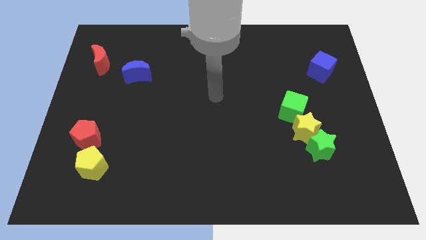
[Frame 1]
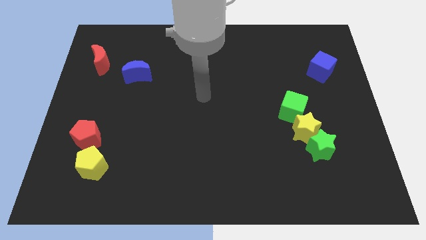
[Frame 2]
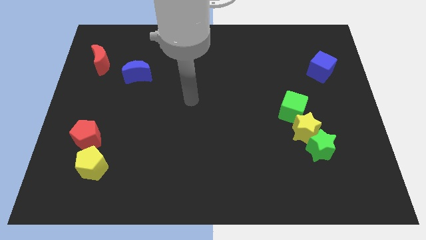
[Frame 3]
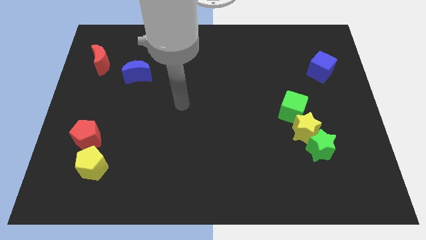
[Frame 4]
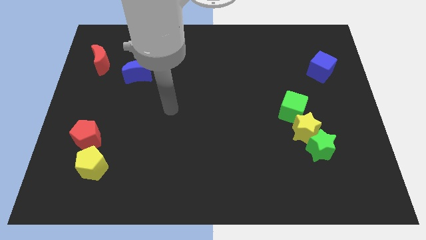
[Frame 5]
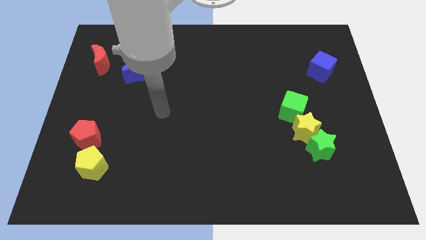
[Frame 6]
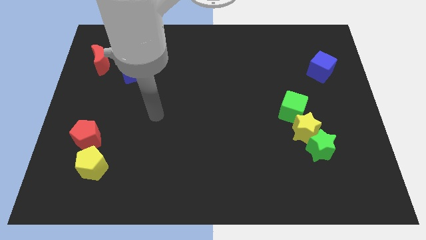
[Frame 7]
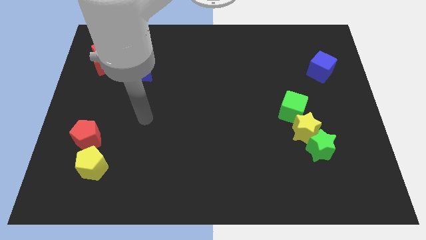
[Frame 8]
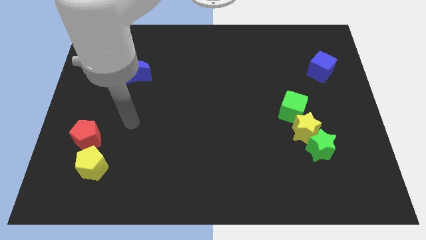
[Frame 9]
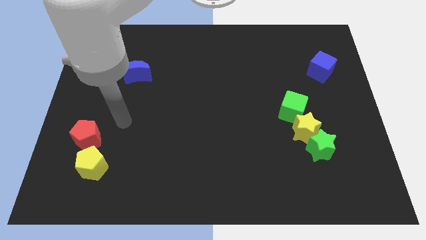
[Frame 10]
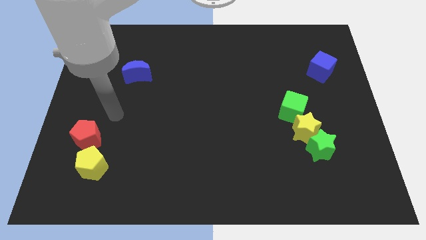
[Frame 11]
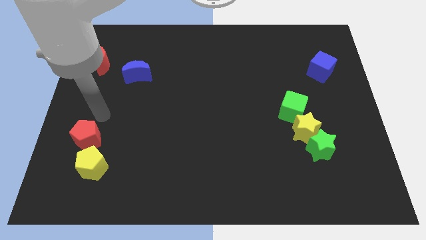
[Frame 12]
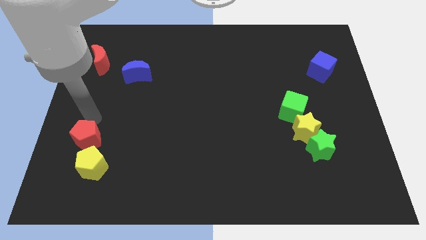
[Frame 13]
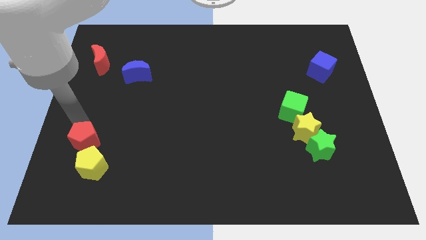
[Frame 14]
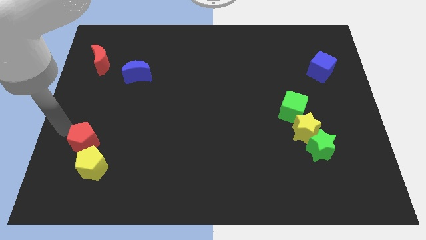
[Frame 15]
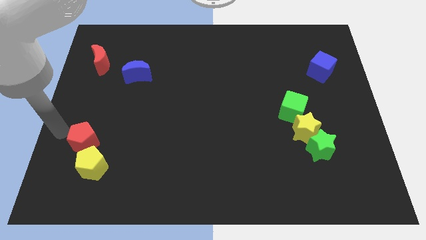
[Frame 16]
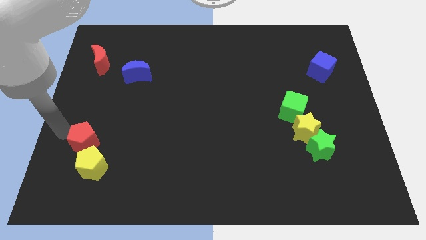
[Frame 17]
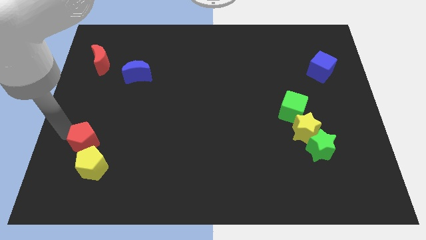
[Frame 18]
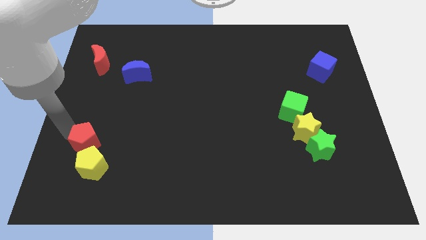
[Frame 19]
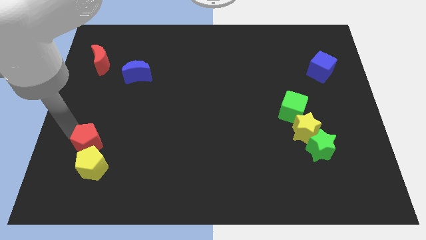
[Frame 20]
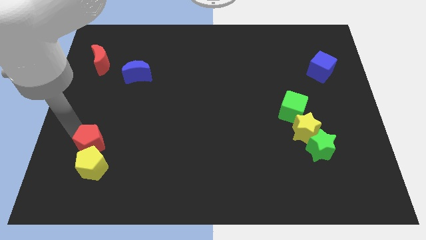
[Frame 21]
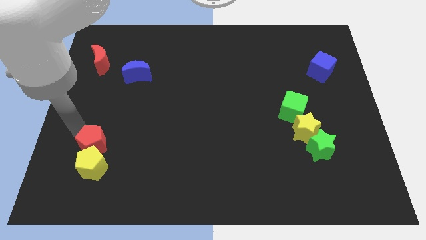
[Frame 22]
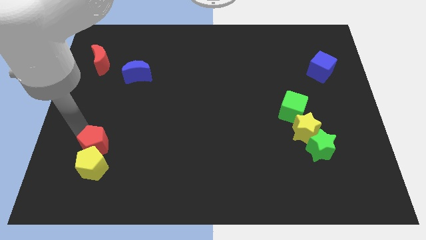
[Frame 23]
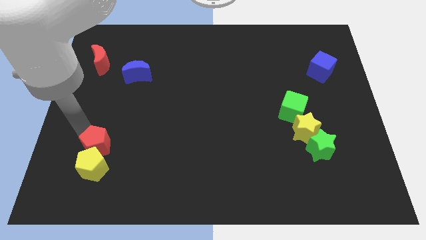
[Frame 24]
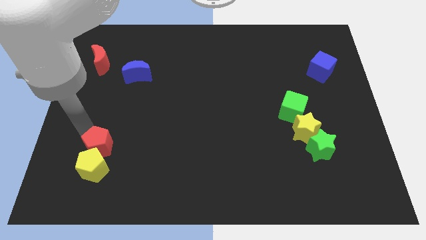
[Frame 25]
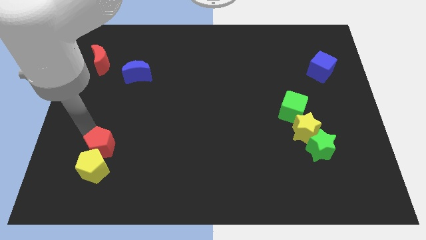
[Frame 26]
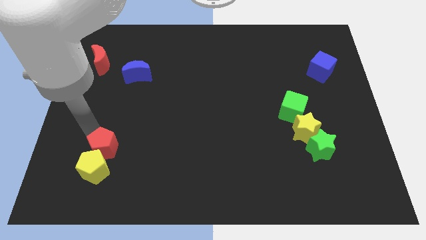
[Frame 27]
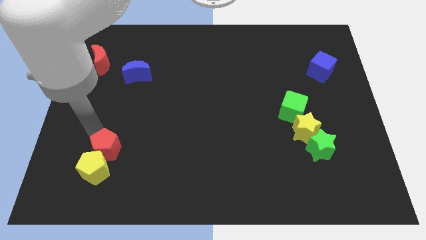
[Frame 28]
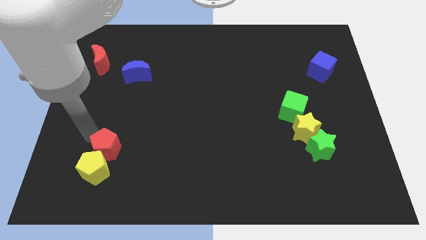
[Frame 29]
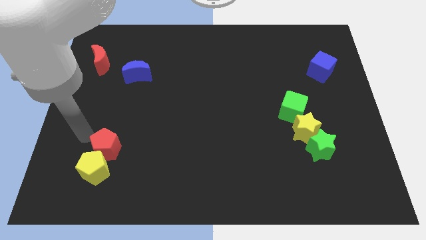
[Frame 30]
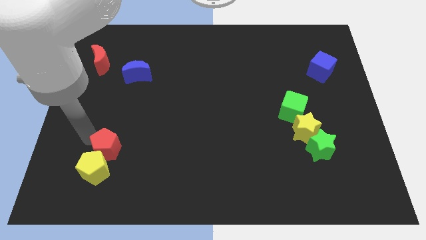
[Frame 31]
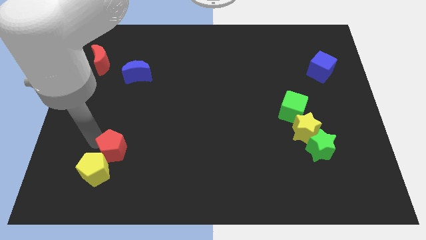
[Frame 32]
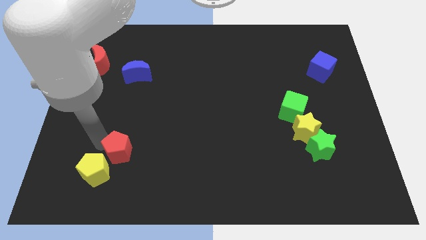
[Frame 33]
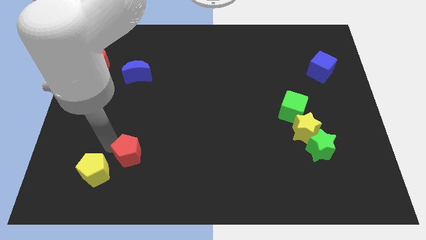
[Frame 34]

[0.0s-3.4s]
put the red pentagon just right of the yellow pentagon

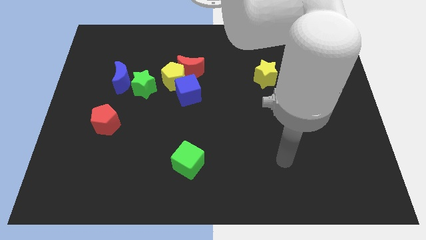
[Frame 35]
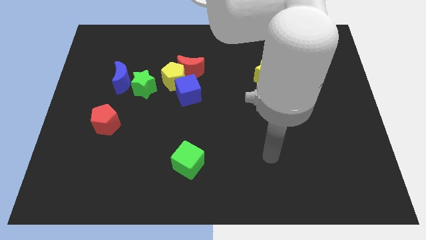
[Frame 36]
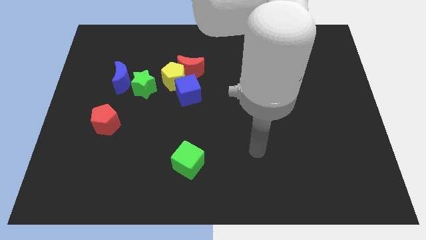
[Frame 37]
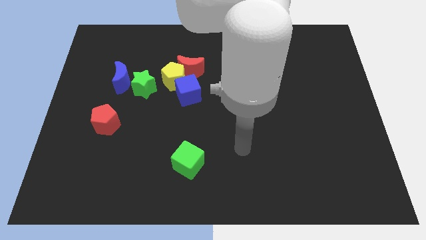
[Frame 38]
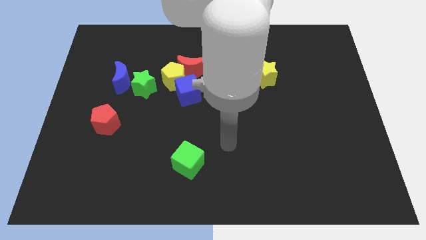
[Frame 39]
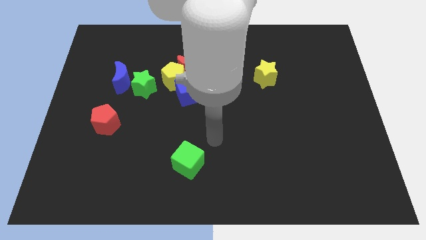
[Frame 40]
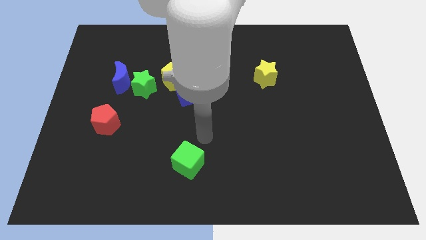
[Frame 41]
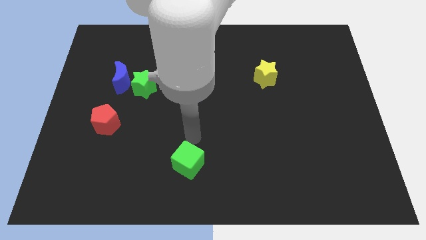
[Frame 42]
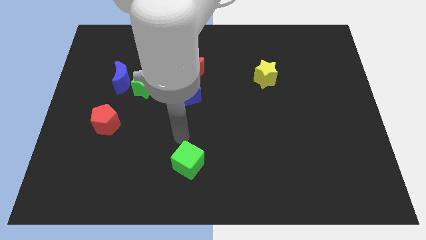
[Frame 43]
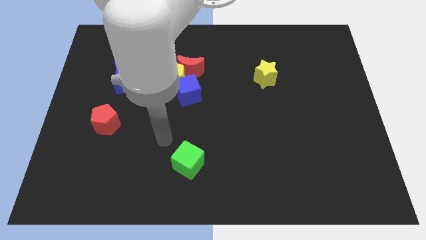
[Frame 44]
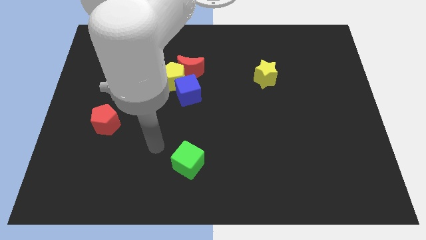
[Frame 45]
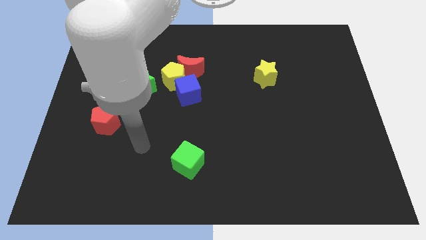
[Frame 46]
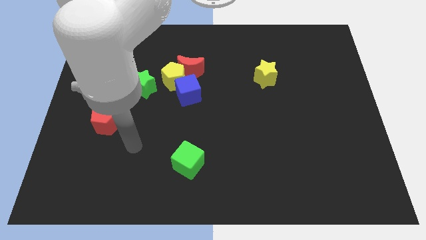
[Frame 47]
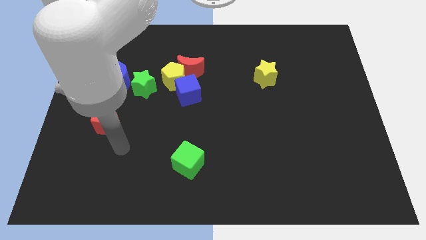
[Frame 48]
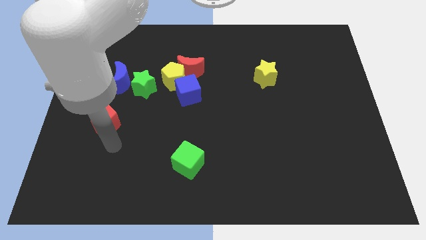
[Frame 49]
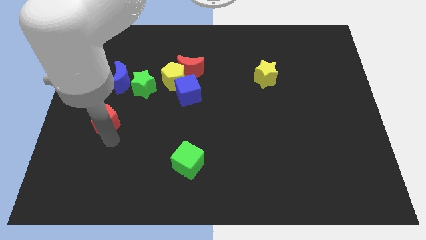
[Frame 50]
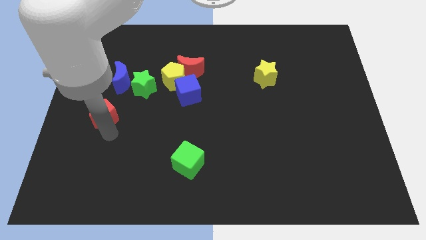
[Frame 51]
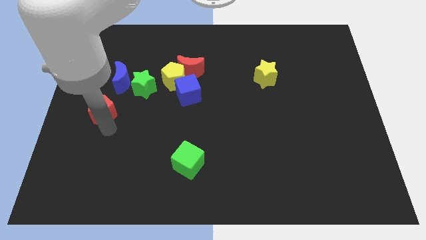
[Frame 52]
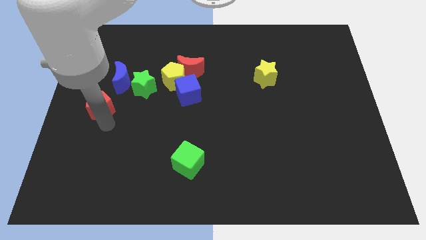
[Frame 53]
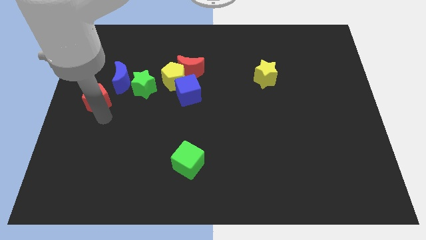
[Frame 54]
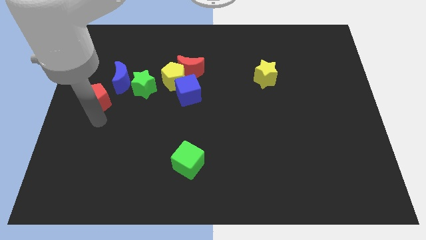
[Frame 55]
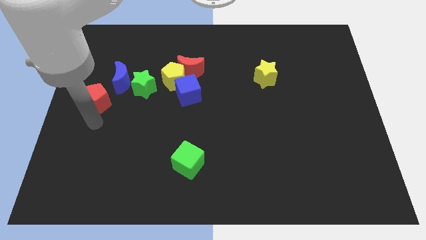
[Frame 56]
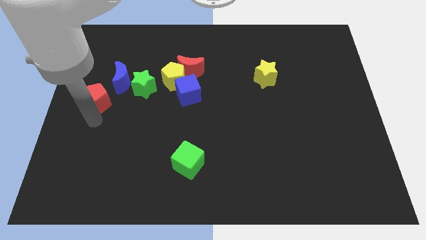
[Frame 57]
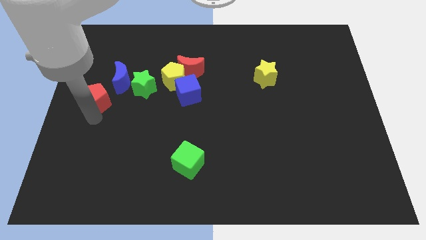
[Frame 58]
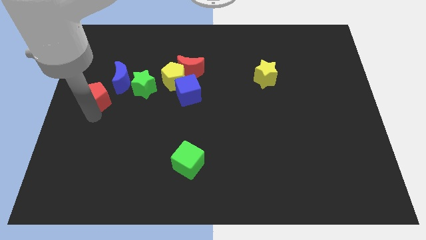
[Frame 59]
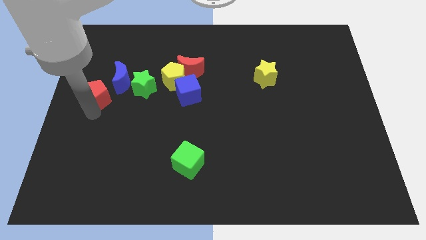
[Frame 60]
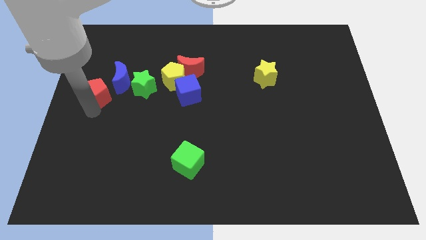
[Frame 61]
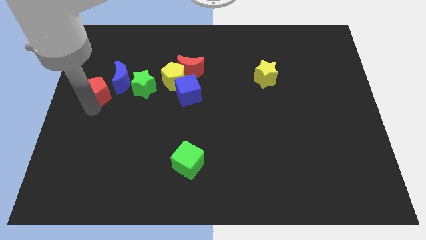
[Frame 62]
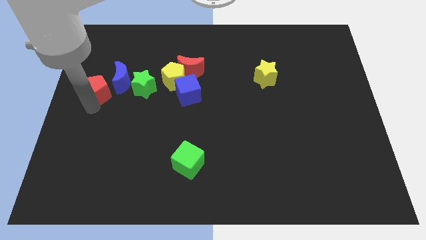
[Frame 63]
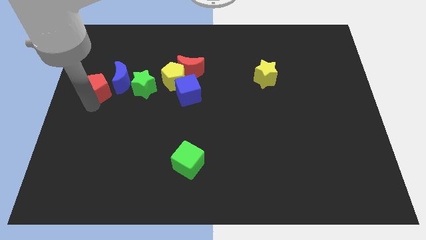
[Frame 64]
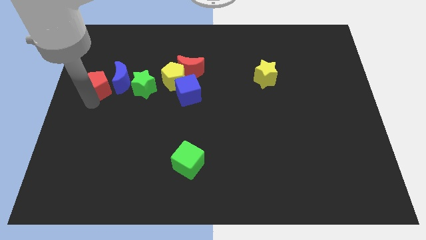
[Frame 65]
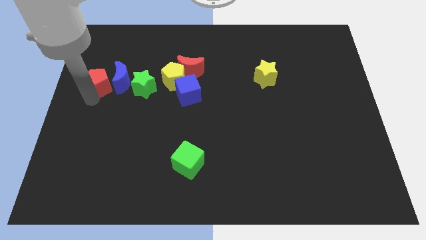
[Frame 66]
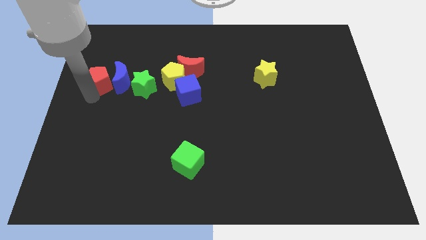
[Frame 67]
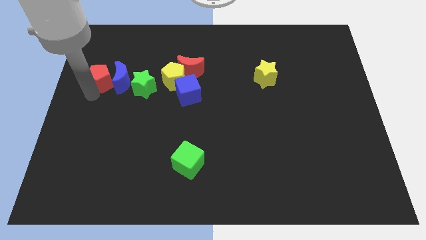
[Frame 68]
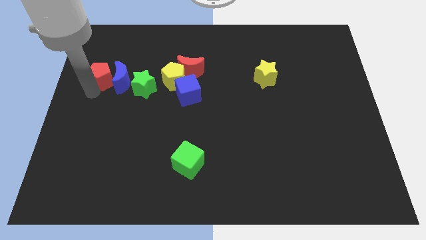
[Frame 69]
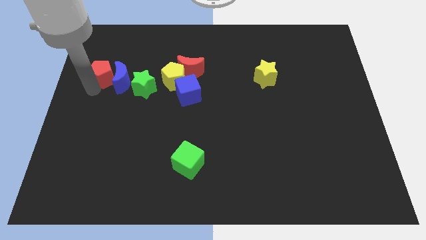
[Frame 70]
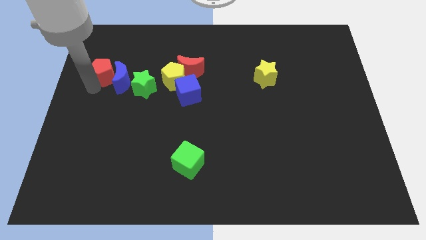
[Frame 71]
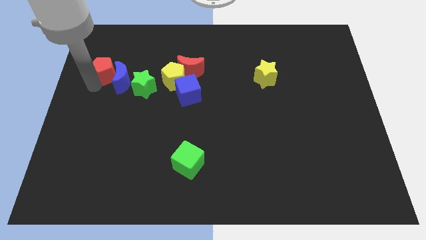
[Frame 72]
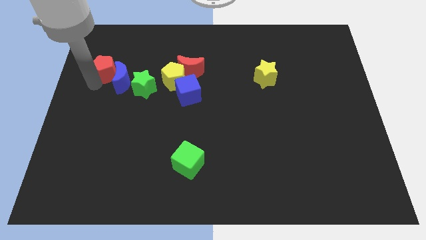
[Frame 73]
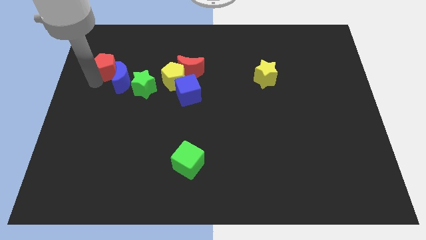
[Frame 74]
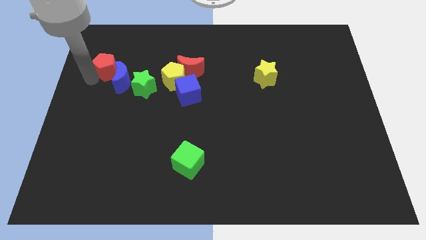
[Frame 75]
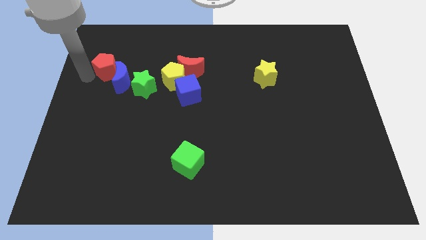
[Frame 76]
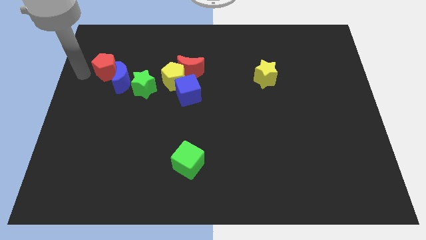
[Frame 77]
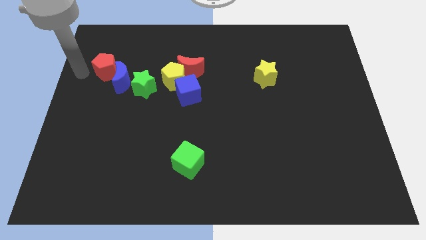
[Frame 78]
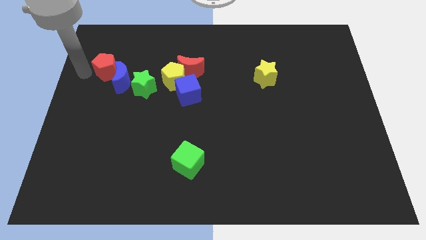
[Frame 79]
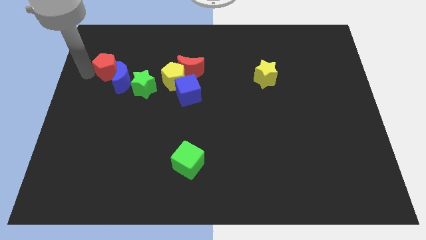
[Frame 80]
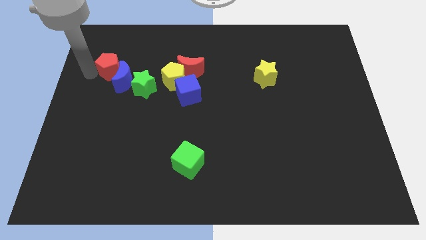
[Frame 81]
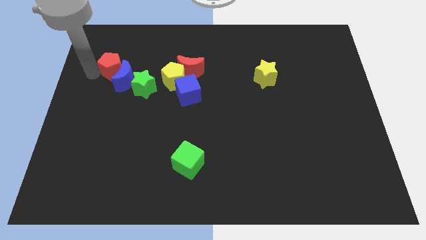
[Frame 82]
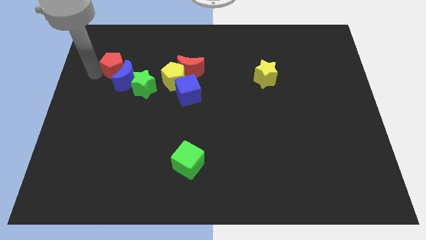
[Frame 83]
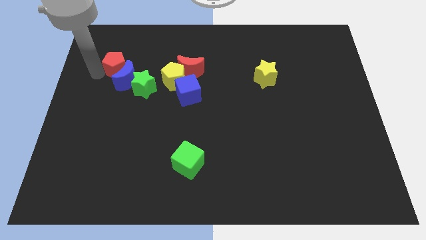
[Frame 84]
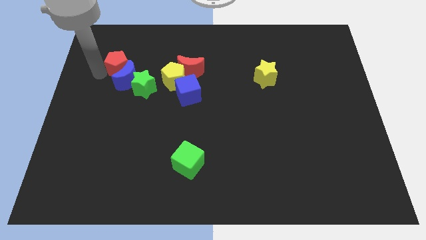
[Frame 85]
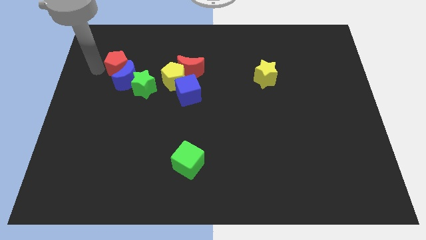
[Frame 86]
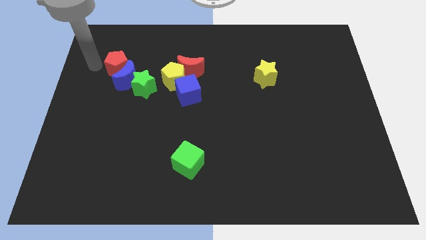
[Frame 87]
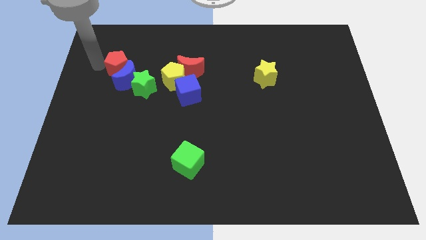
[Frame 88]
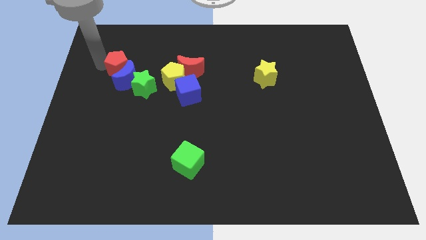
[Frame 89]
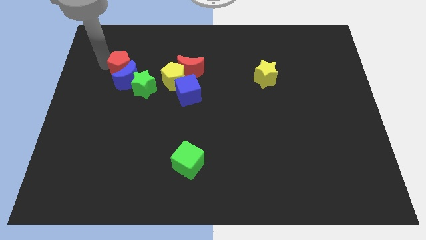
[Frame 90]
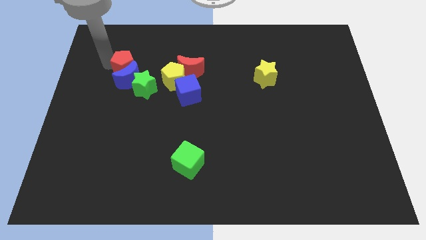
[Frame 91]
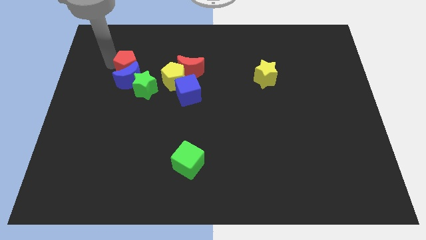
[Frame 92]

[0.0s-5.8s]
push the red pentagon to the left side of the red moon
